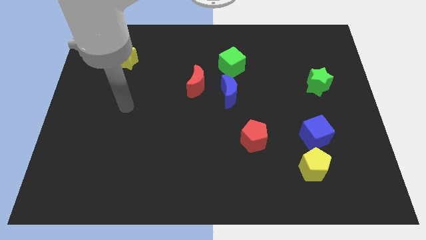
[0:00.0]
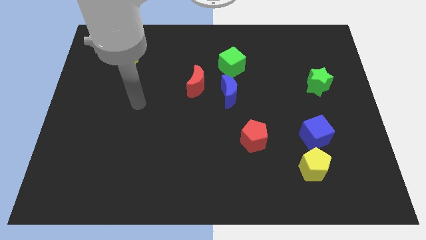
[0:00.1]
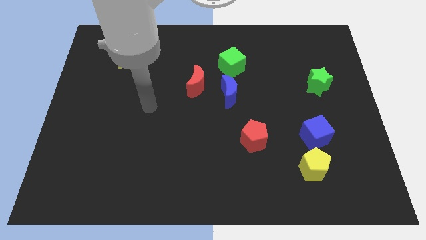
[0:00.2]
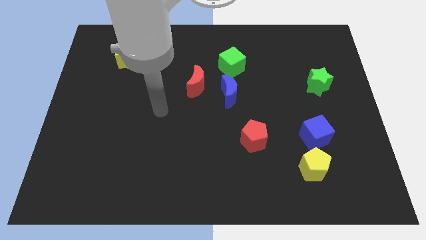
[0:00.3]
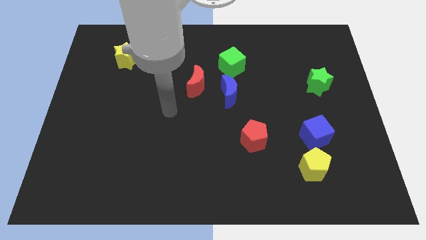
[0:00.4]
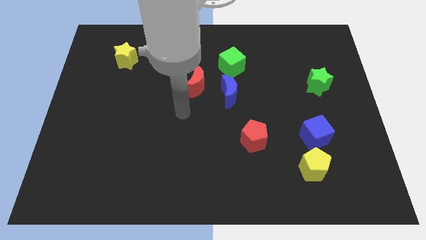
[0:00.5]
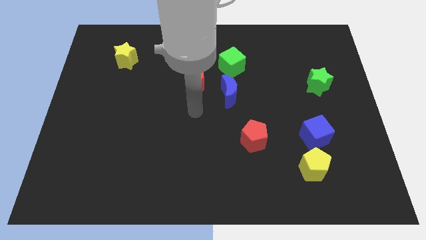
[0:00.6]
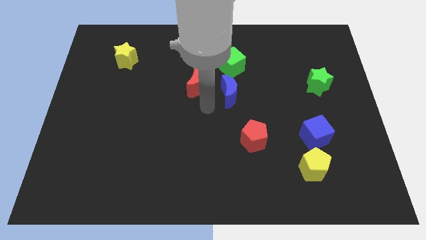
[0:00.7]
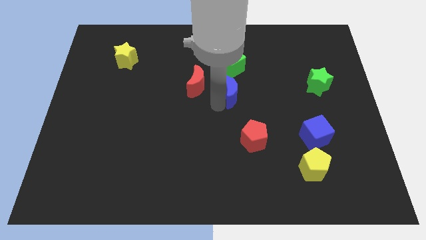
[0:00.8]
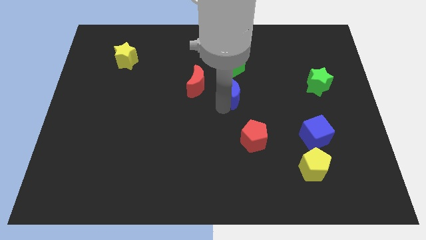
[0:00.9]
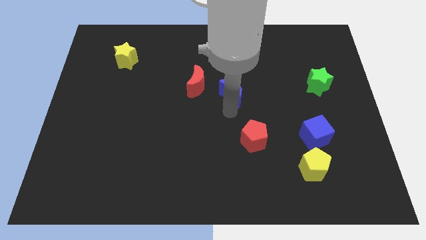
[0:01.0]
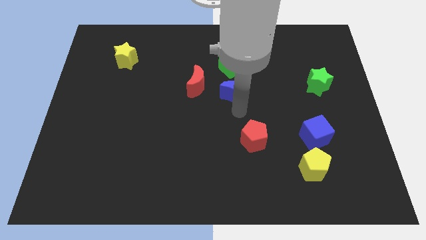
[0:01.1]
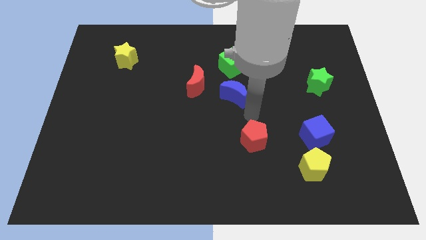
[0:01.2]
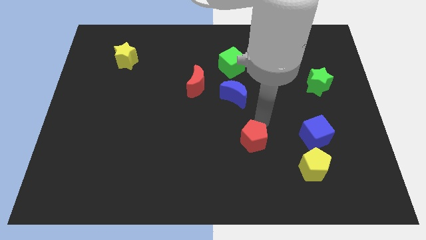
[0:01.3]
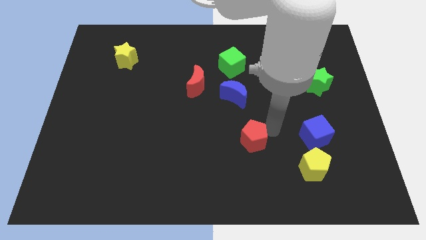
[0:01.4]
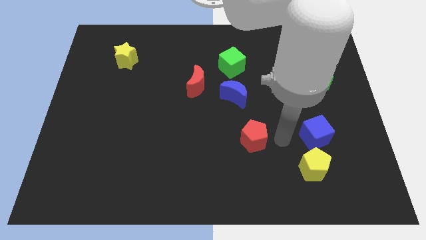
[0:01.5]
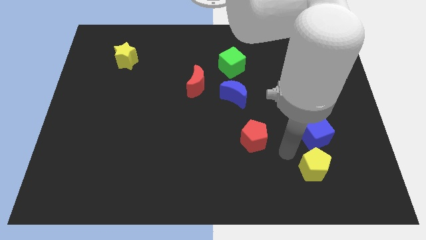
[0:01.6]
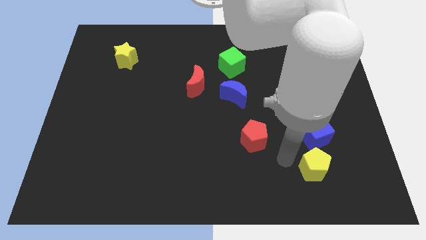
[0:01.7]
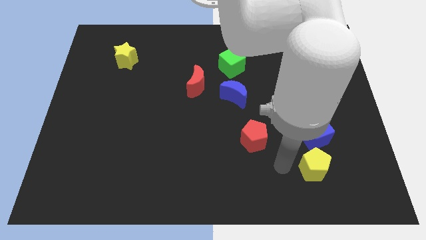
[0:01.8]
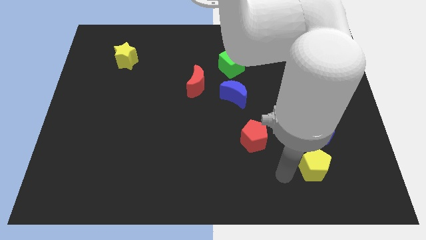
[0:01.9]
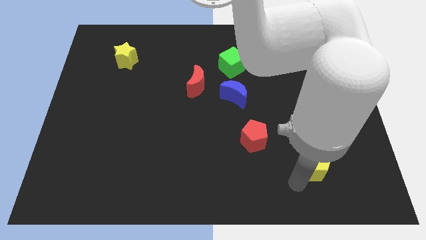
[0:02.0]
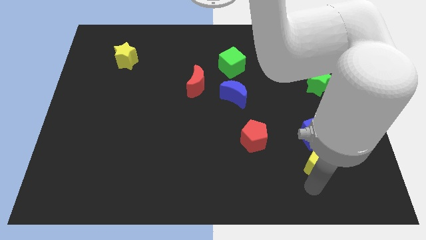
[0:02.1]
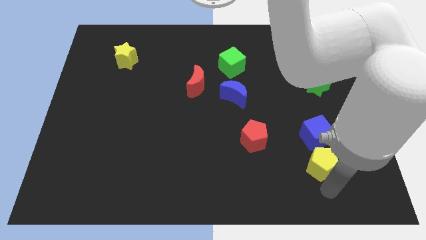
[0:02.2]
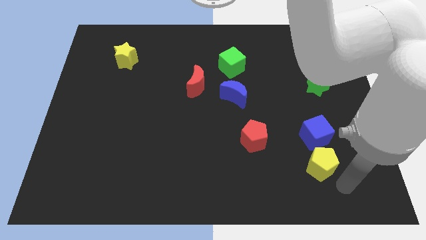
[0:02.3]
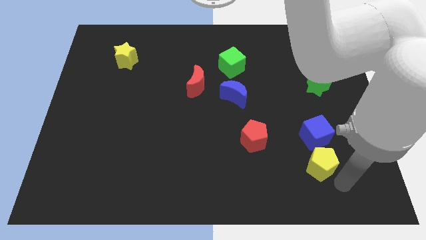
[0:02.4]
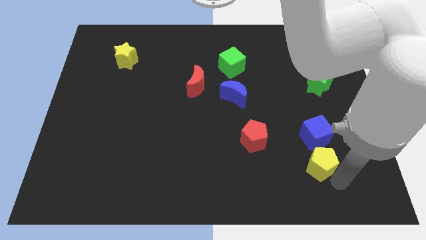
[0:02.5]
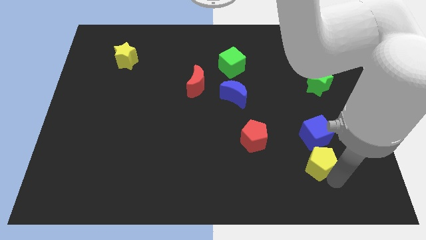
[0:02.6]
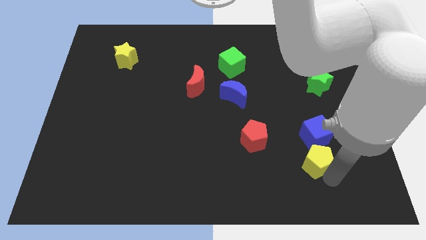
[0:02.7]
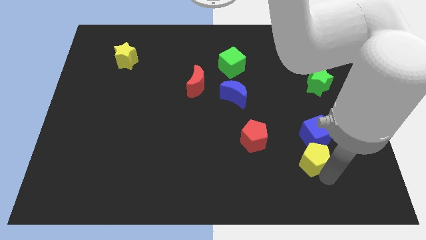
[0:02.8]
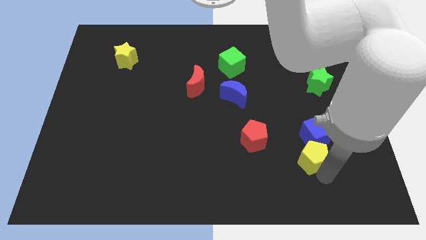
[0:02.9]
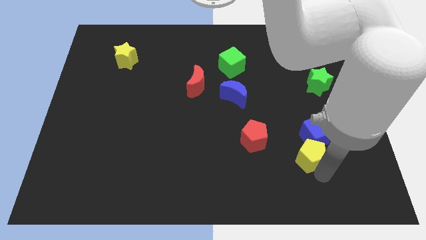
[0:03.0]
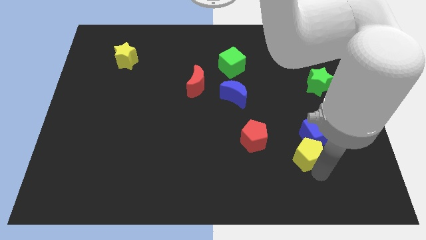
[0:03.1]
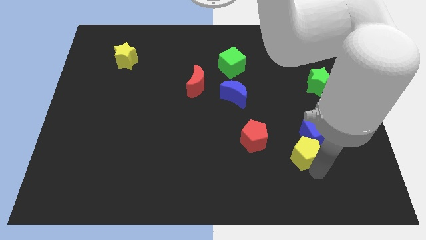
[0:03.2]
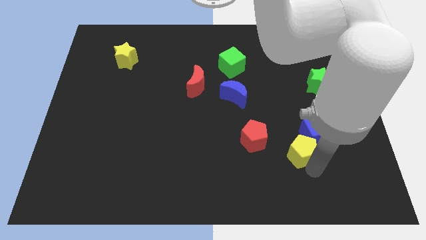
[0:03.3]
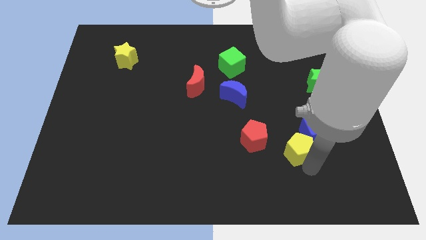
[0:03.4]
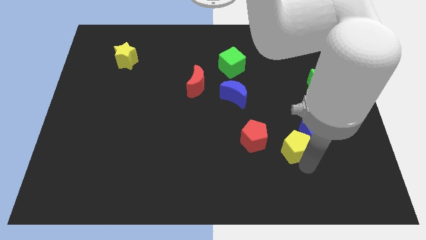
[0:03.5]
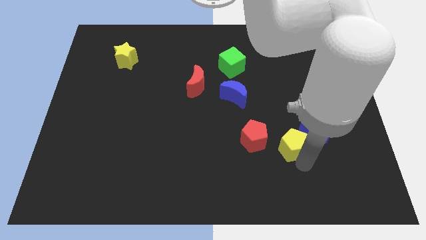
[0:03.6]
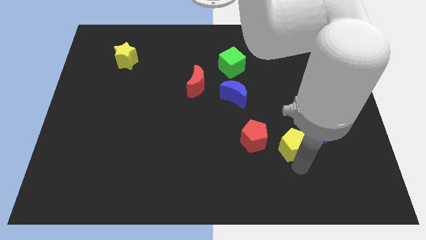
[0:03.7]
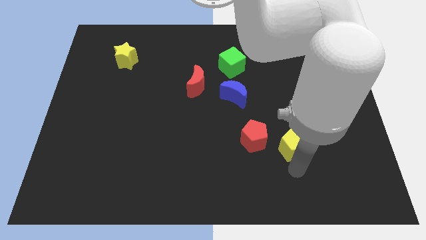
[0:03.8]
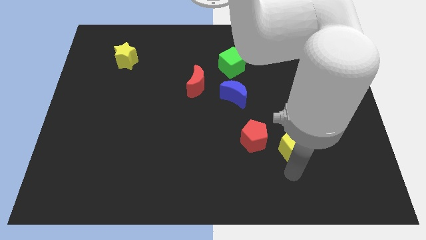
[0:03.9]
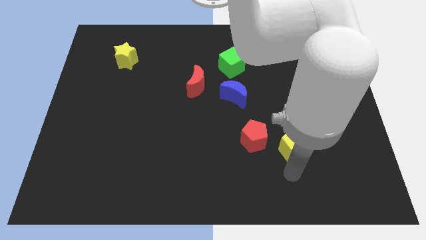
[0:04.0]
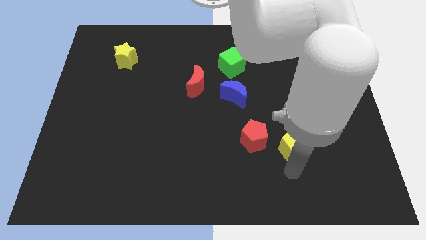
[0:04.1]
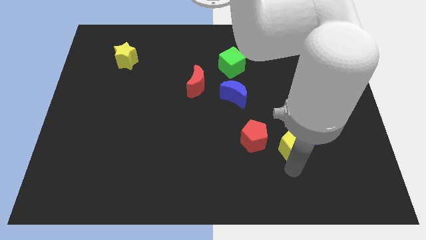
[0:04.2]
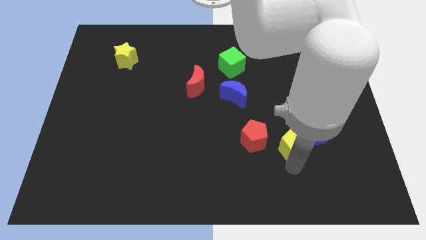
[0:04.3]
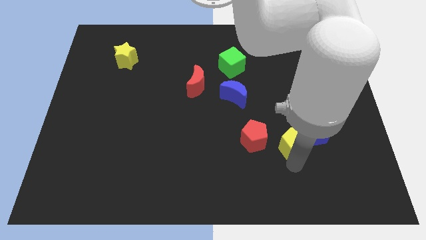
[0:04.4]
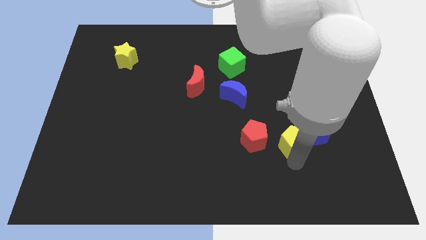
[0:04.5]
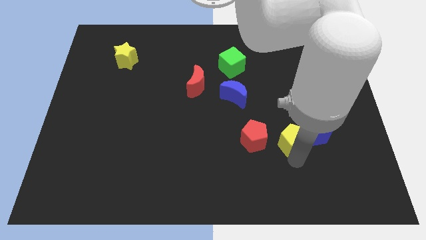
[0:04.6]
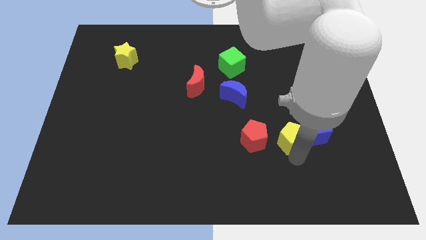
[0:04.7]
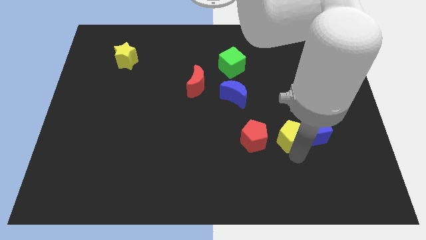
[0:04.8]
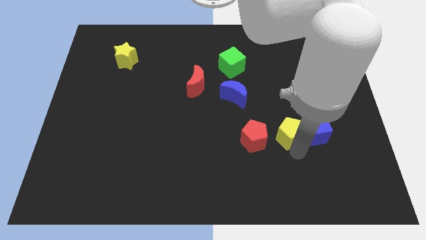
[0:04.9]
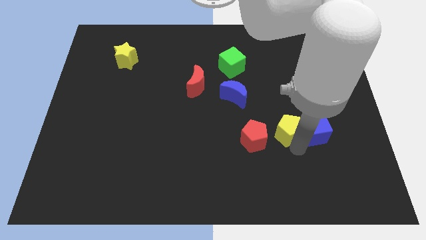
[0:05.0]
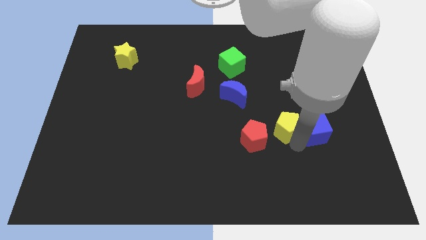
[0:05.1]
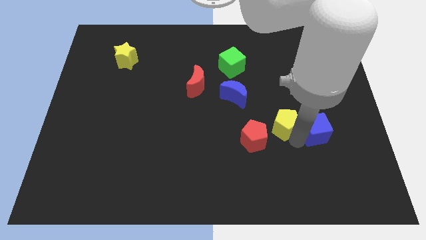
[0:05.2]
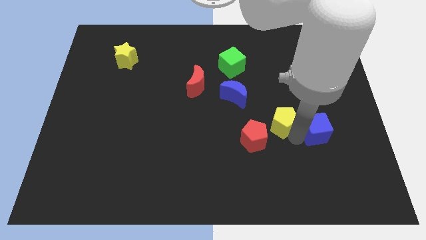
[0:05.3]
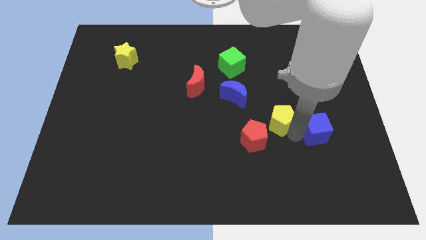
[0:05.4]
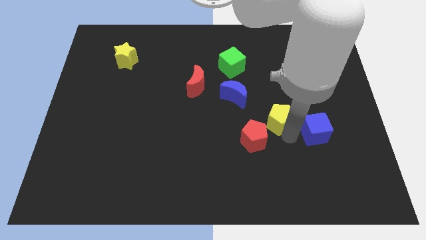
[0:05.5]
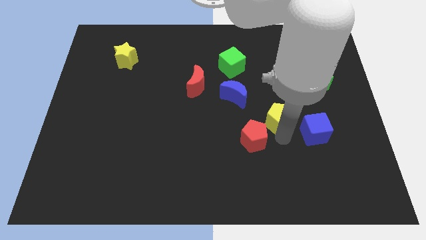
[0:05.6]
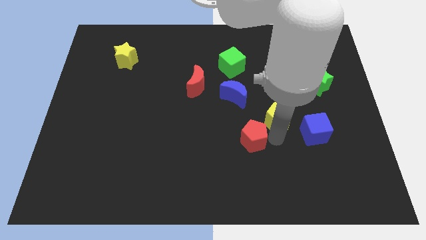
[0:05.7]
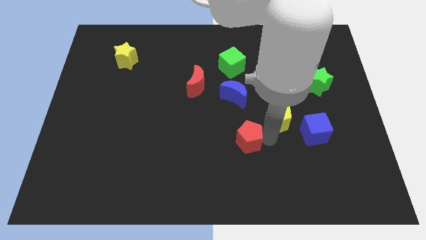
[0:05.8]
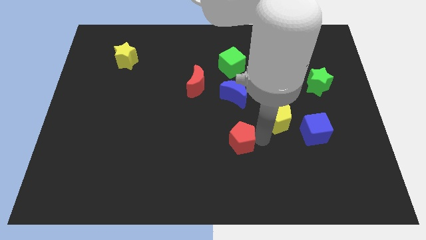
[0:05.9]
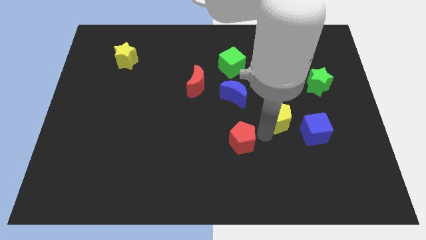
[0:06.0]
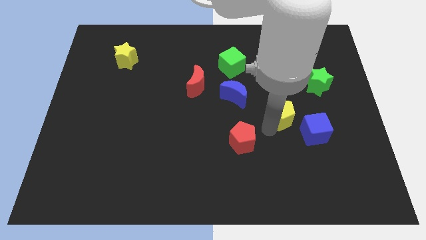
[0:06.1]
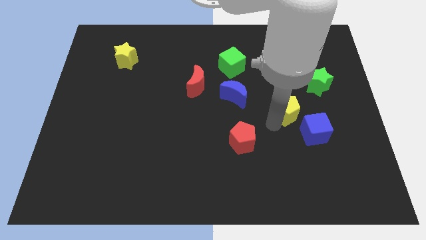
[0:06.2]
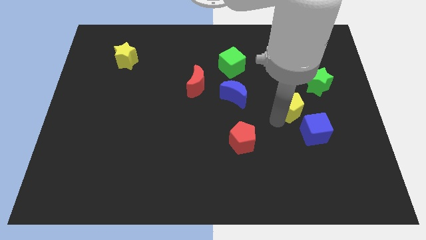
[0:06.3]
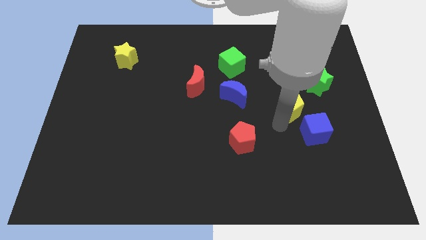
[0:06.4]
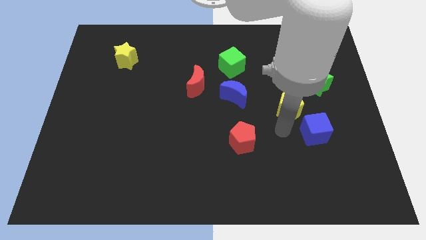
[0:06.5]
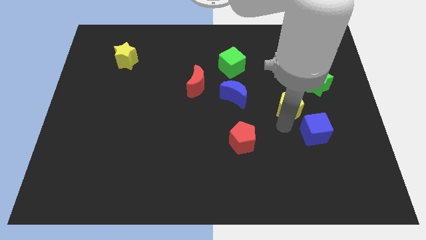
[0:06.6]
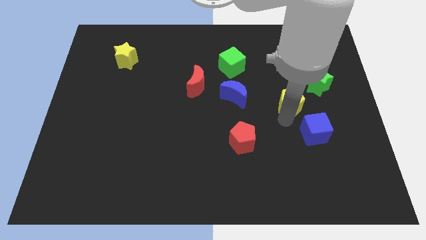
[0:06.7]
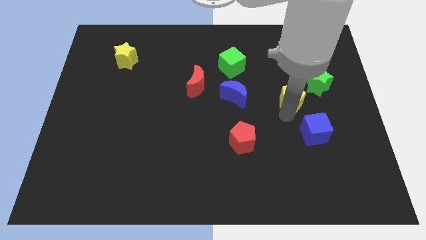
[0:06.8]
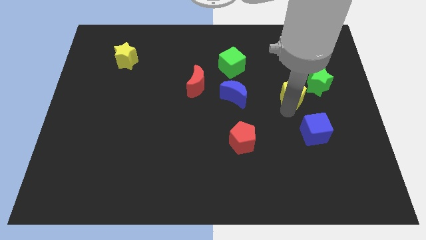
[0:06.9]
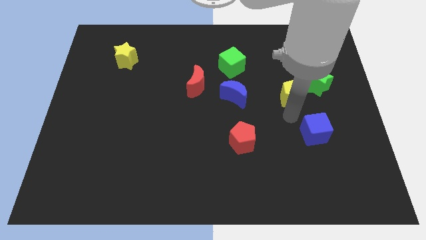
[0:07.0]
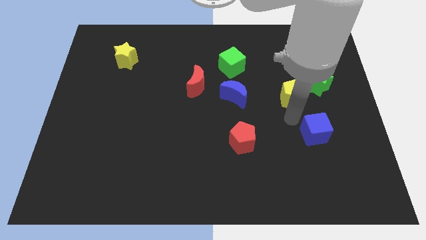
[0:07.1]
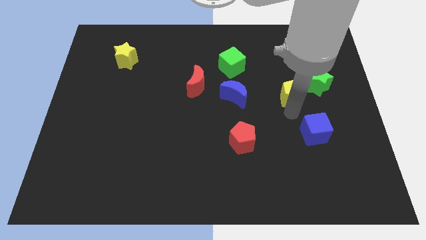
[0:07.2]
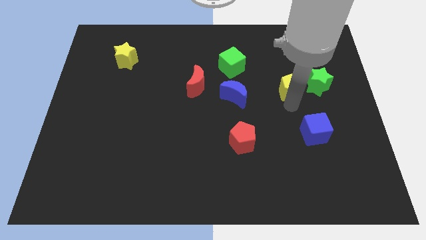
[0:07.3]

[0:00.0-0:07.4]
slide the yellow pentagon upwards

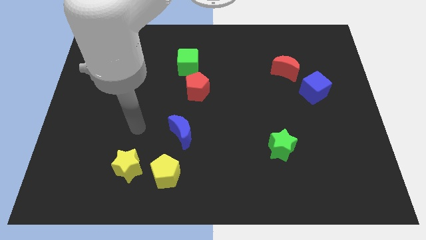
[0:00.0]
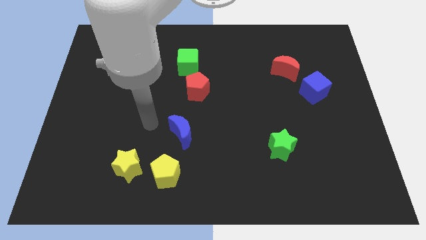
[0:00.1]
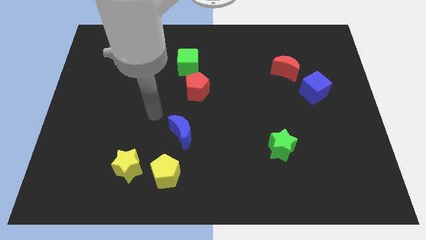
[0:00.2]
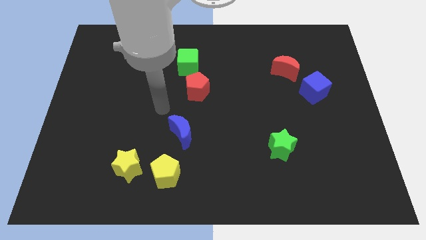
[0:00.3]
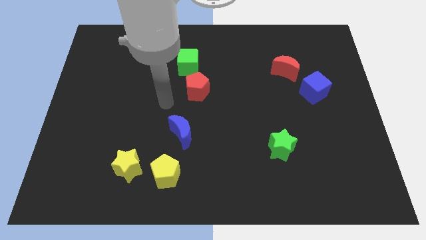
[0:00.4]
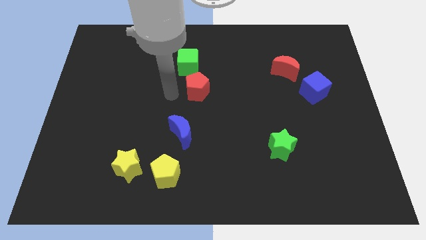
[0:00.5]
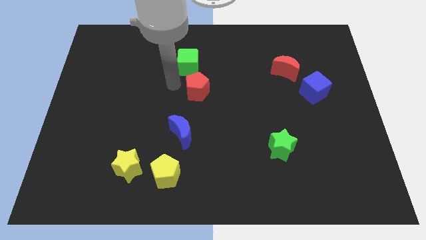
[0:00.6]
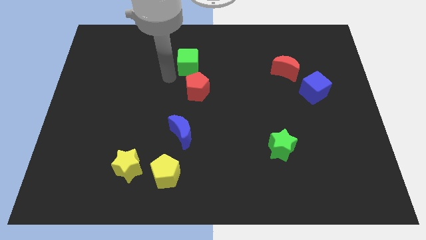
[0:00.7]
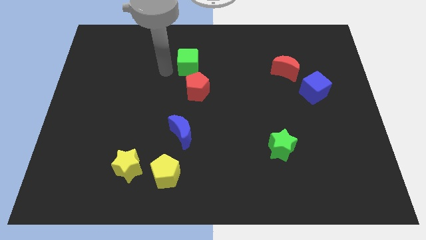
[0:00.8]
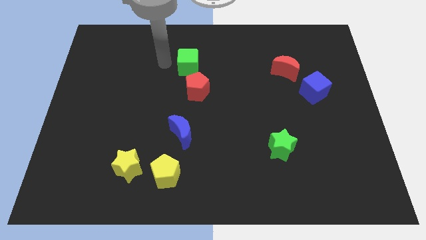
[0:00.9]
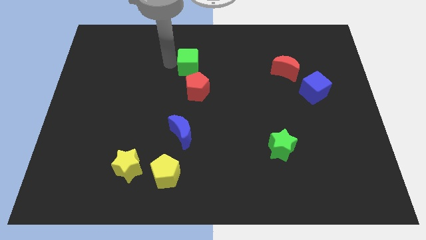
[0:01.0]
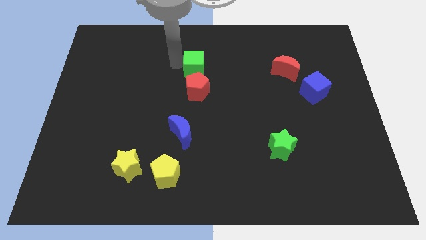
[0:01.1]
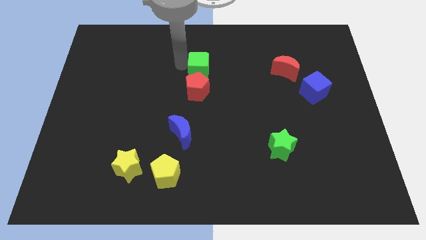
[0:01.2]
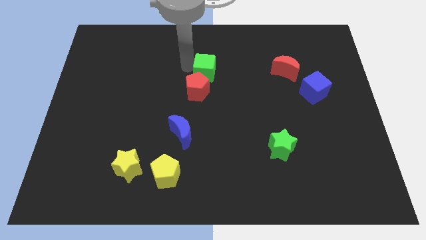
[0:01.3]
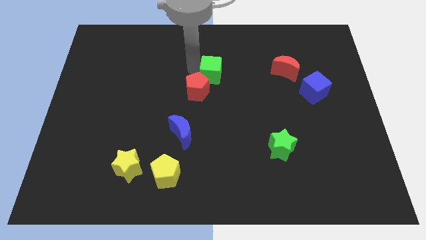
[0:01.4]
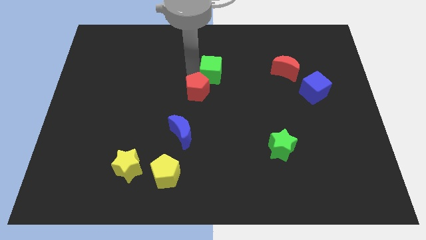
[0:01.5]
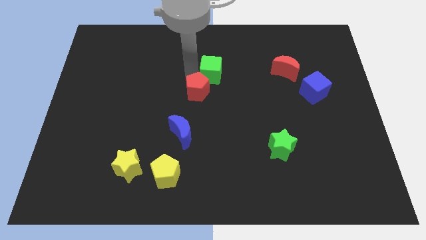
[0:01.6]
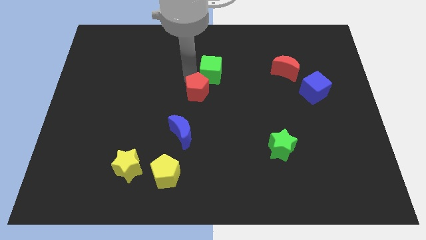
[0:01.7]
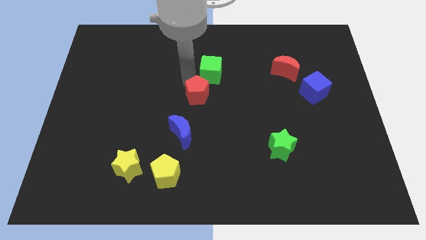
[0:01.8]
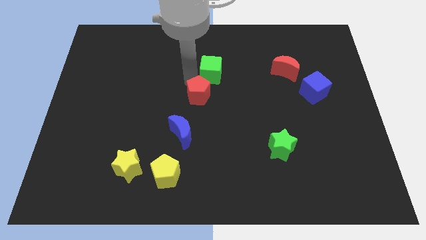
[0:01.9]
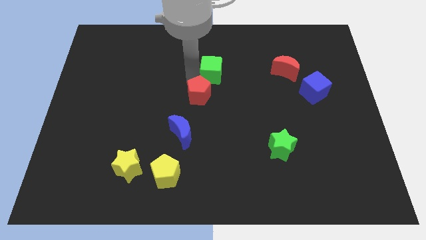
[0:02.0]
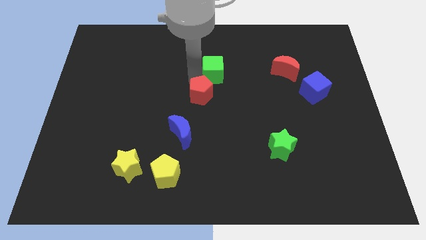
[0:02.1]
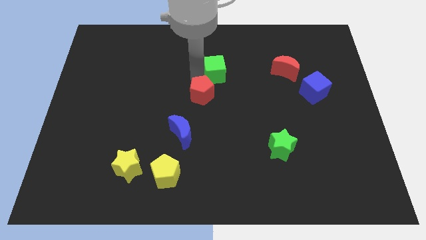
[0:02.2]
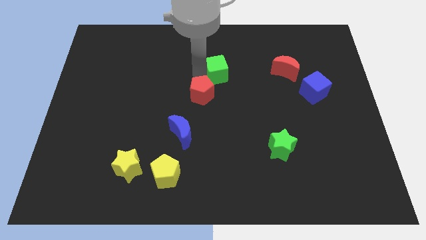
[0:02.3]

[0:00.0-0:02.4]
slide the green cube a little right
